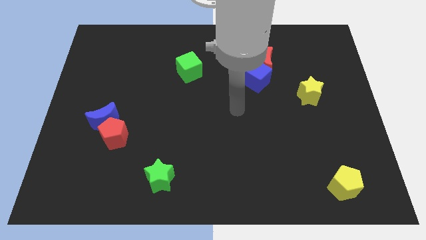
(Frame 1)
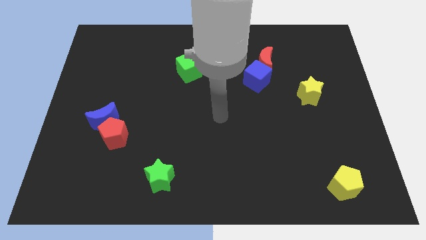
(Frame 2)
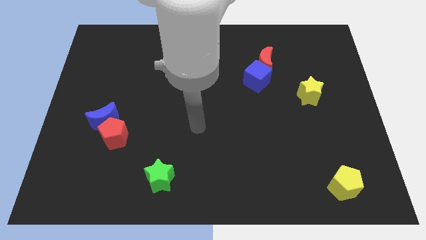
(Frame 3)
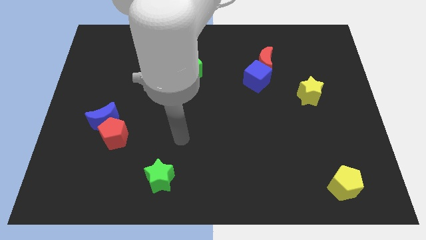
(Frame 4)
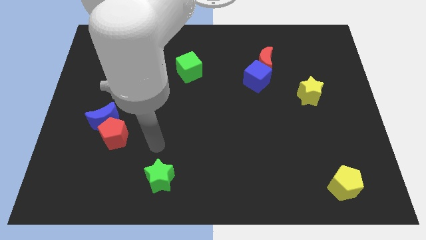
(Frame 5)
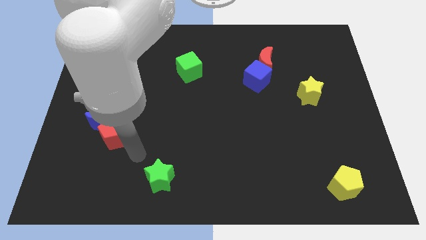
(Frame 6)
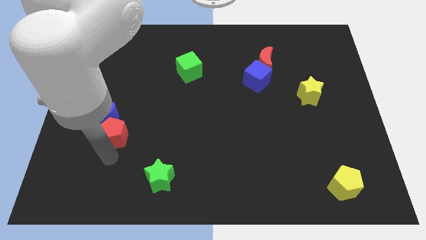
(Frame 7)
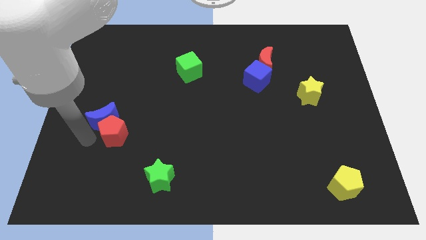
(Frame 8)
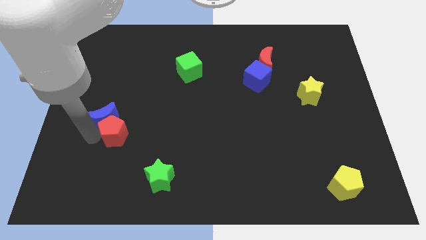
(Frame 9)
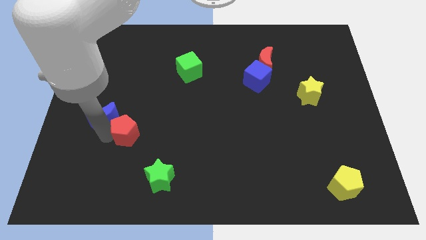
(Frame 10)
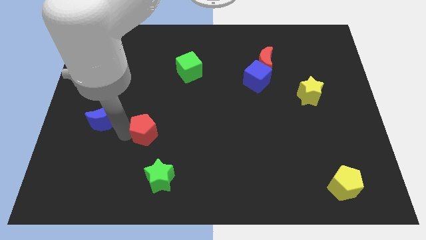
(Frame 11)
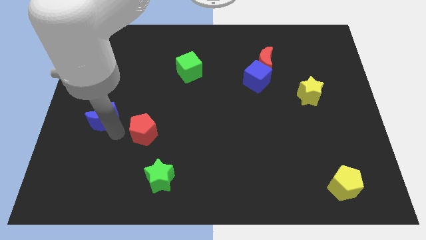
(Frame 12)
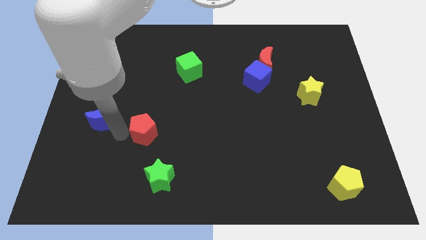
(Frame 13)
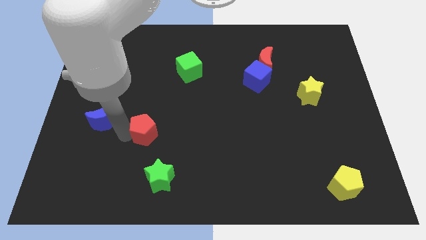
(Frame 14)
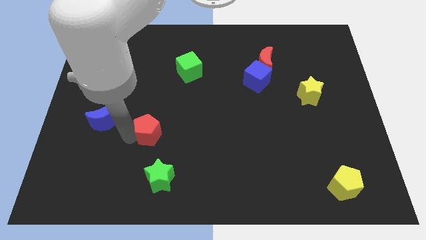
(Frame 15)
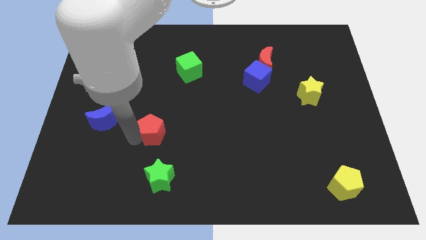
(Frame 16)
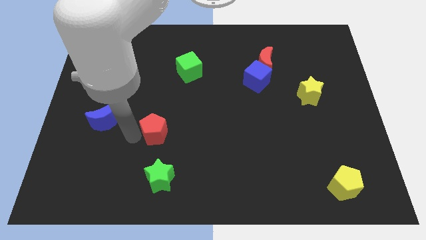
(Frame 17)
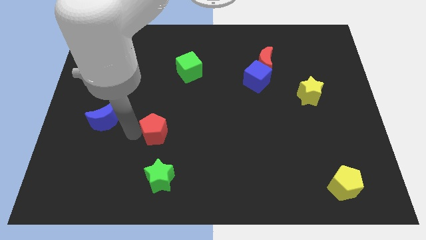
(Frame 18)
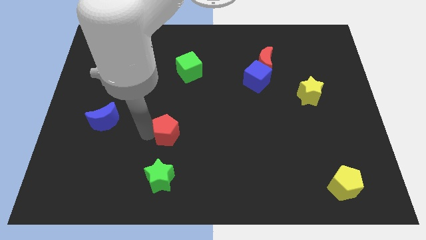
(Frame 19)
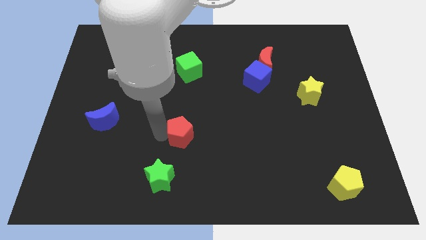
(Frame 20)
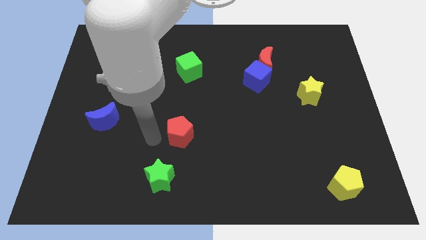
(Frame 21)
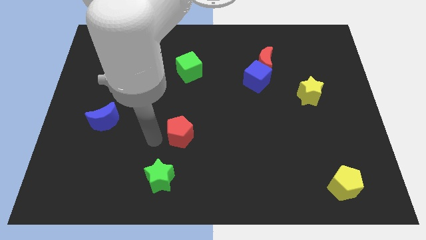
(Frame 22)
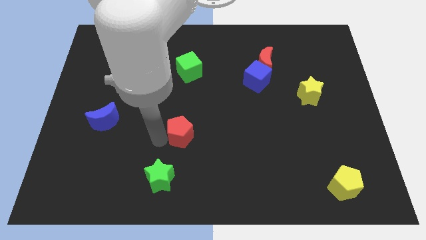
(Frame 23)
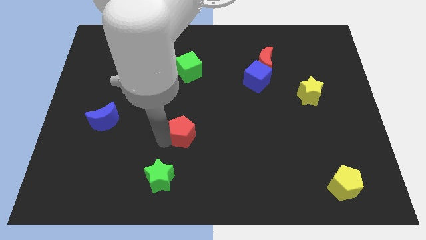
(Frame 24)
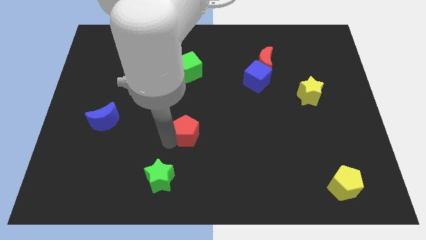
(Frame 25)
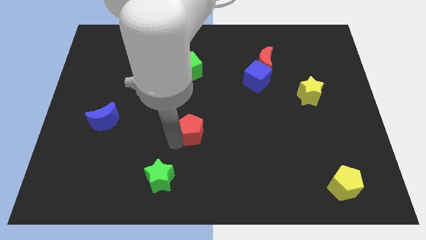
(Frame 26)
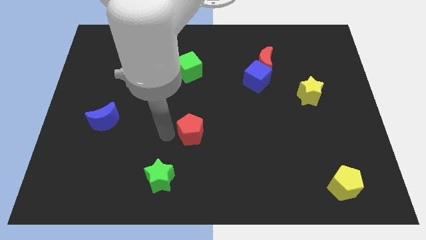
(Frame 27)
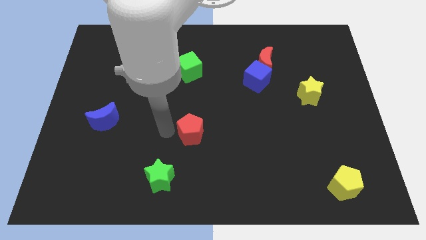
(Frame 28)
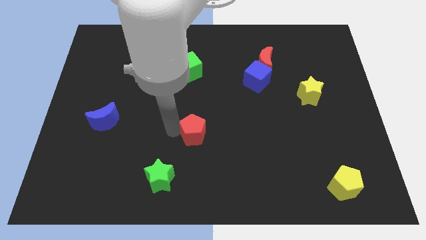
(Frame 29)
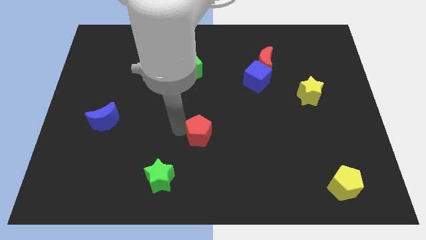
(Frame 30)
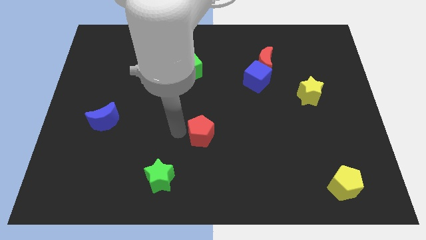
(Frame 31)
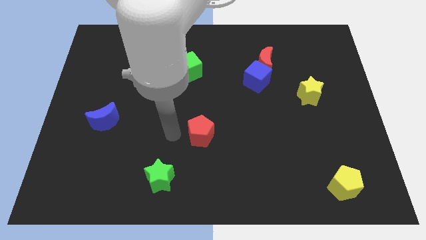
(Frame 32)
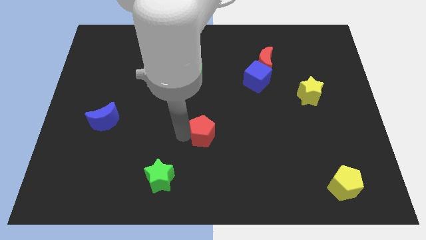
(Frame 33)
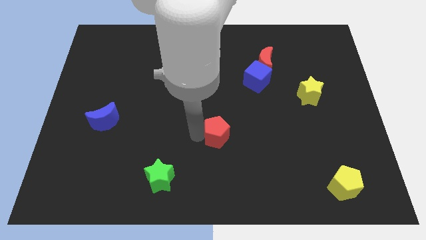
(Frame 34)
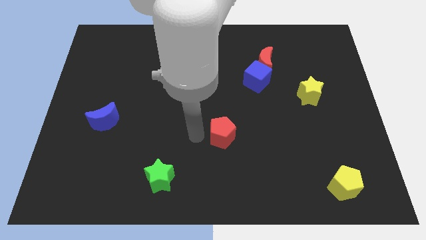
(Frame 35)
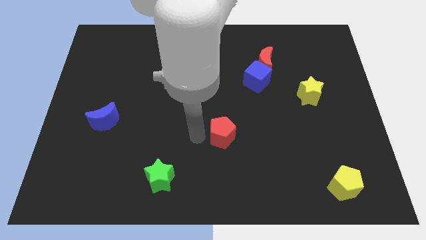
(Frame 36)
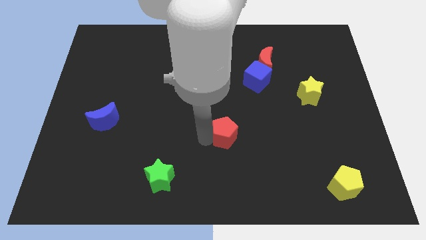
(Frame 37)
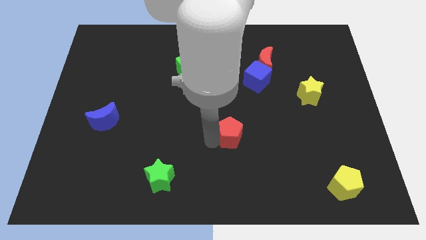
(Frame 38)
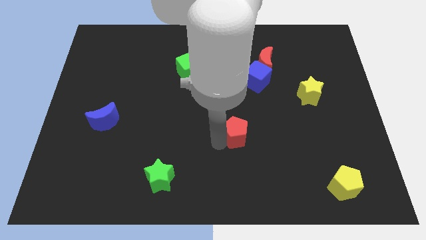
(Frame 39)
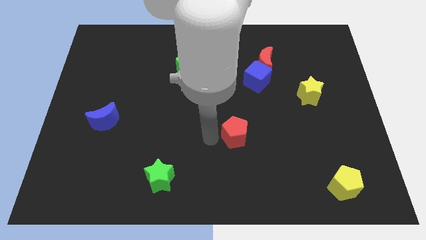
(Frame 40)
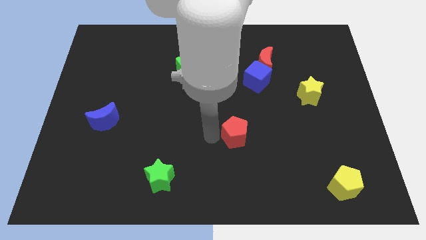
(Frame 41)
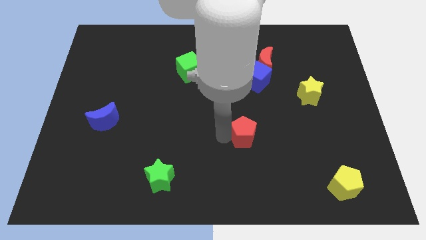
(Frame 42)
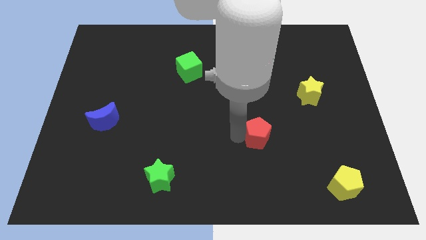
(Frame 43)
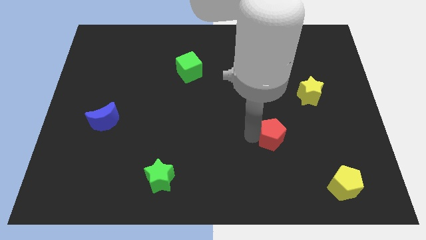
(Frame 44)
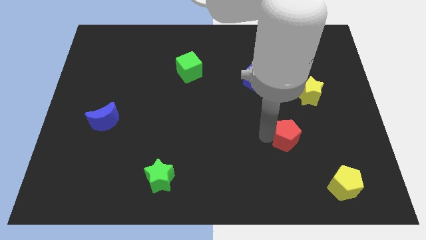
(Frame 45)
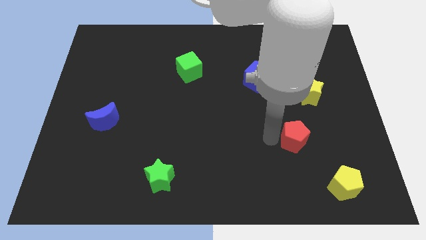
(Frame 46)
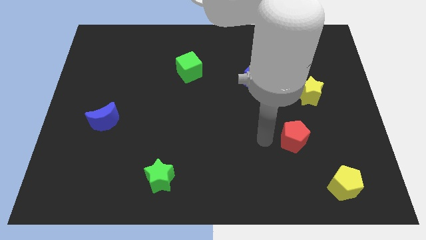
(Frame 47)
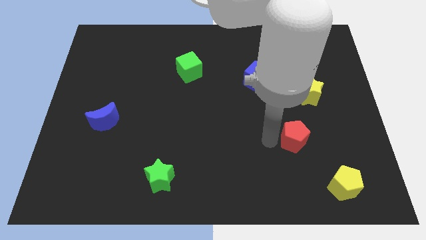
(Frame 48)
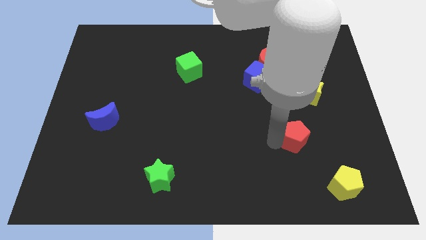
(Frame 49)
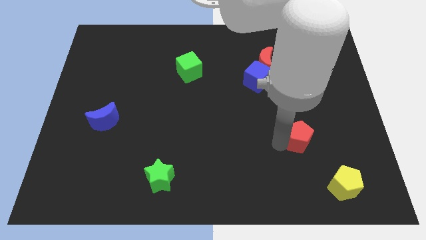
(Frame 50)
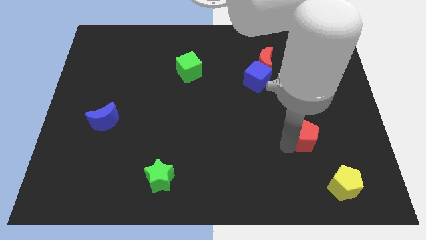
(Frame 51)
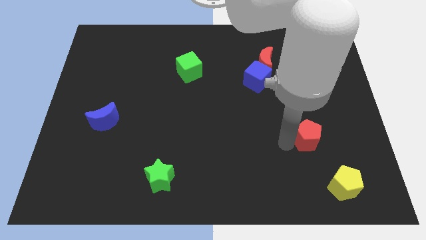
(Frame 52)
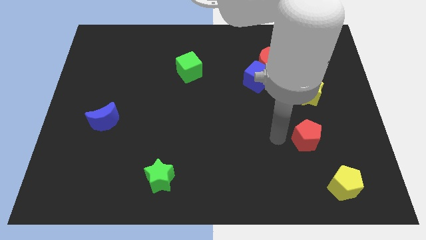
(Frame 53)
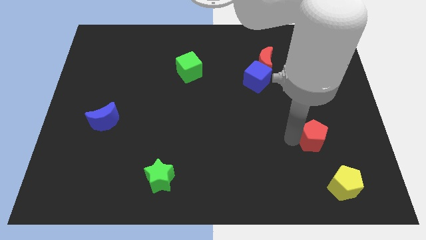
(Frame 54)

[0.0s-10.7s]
put the red pentagon to the top of the yellow pentagon

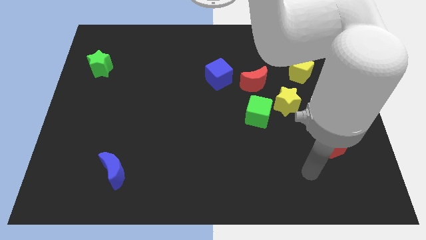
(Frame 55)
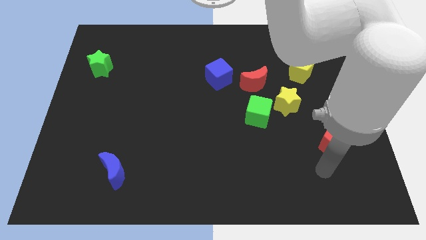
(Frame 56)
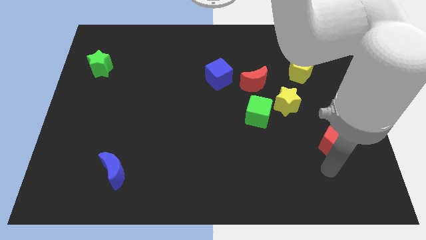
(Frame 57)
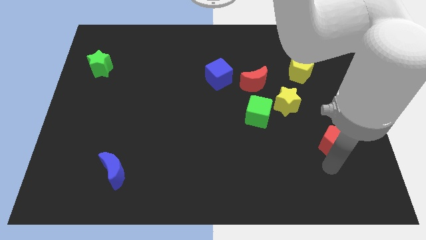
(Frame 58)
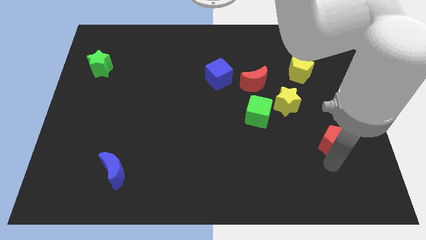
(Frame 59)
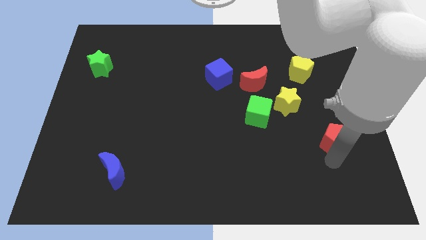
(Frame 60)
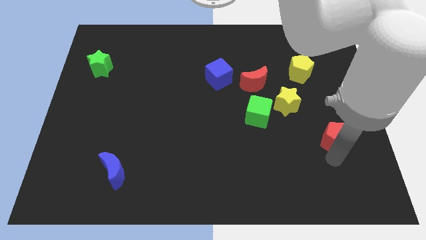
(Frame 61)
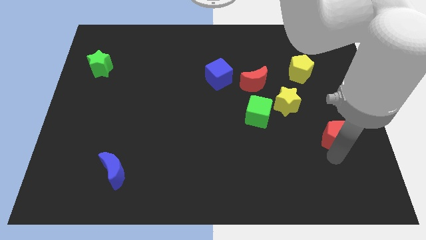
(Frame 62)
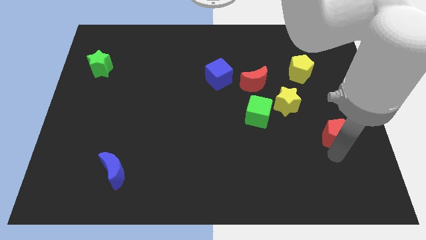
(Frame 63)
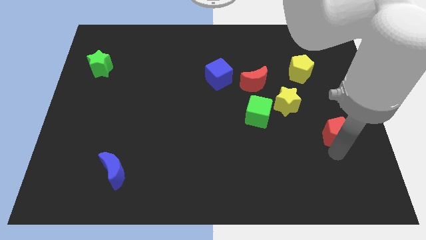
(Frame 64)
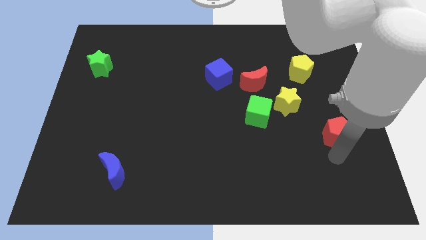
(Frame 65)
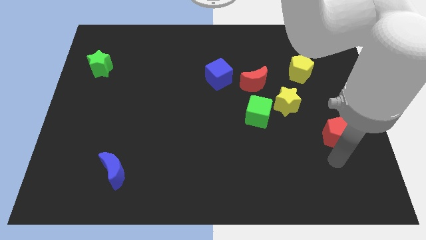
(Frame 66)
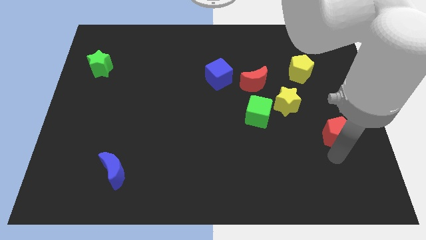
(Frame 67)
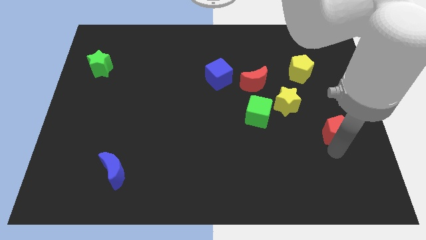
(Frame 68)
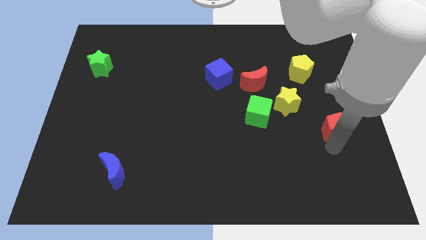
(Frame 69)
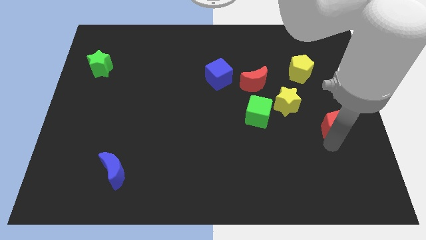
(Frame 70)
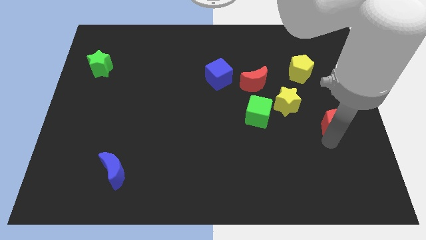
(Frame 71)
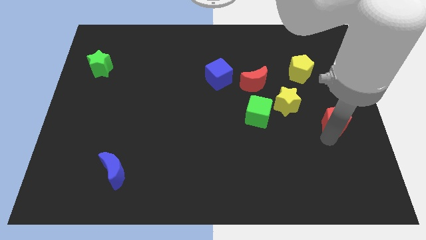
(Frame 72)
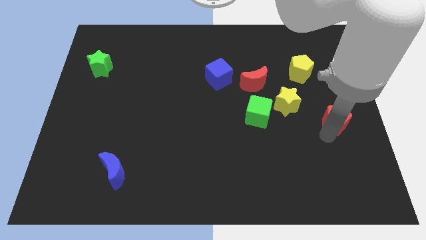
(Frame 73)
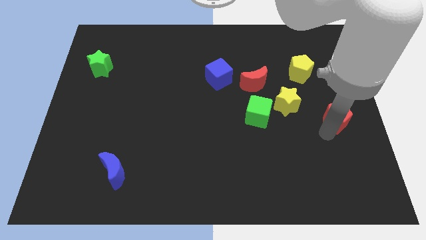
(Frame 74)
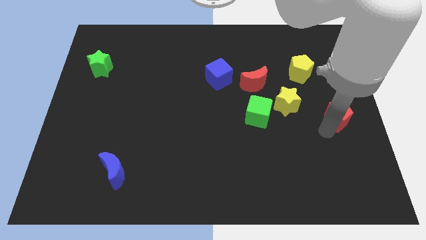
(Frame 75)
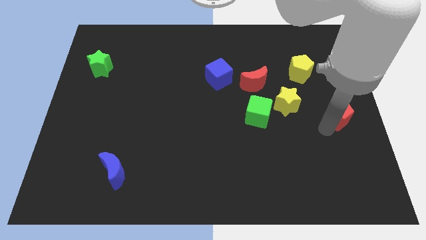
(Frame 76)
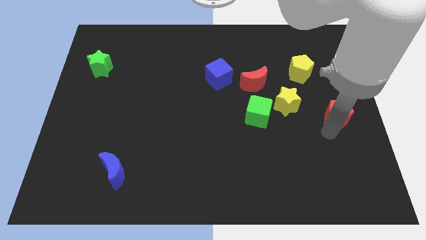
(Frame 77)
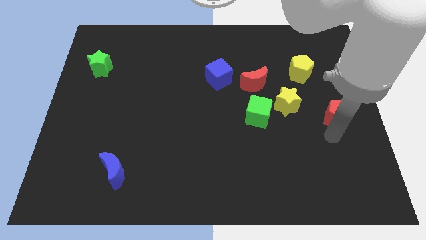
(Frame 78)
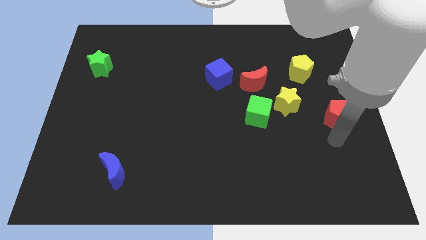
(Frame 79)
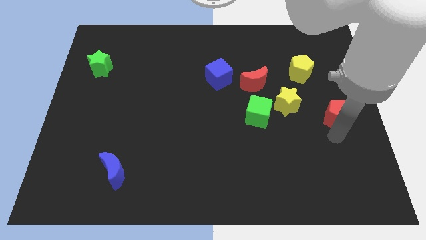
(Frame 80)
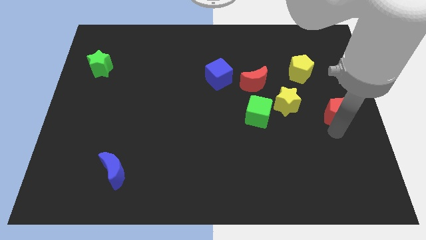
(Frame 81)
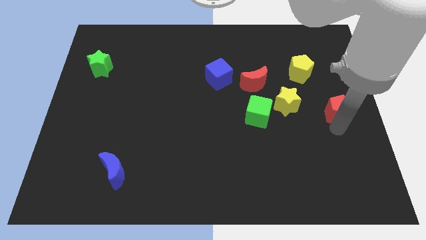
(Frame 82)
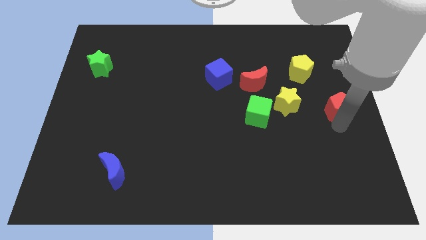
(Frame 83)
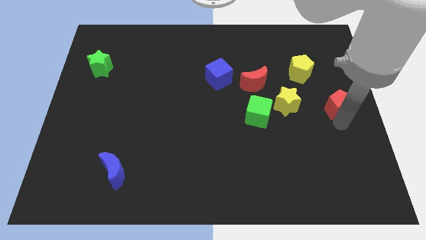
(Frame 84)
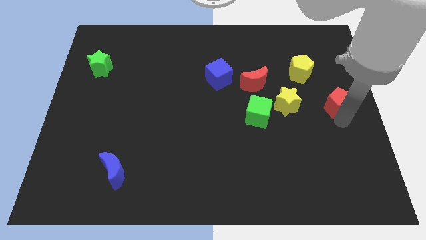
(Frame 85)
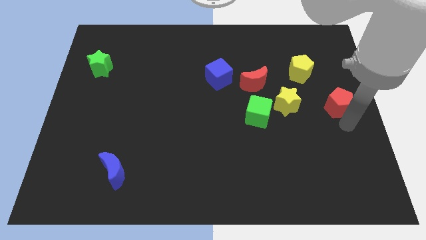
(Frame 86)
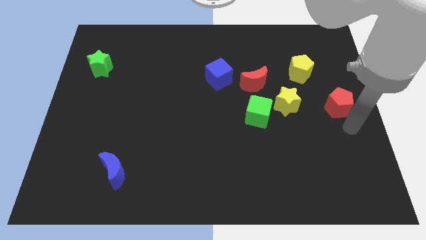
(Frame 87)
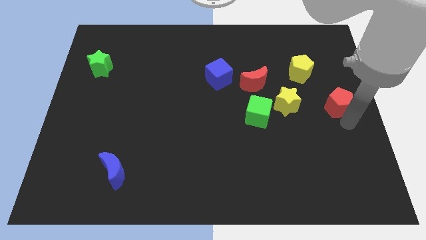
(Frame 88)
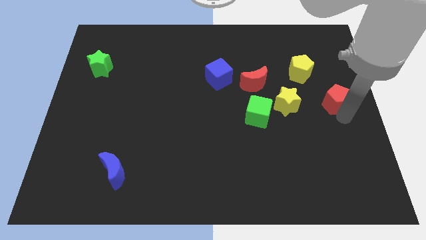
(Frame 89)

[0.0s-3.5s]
push the red pentagon diagonally down and to the right of the yellow pentagon
